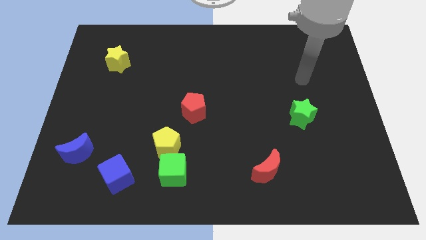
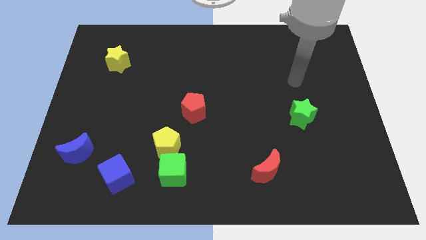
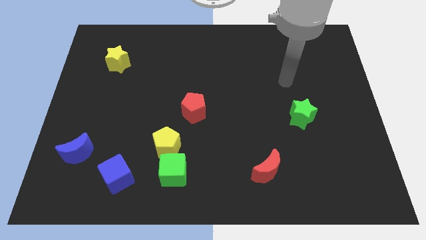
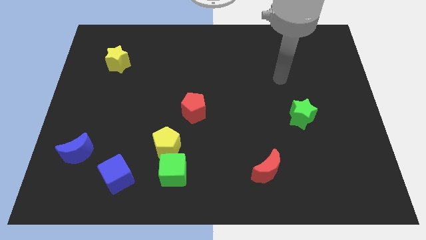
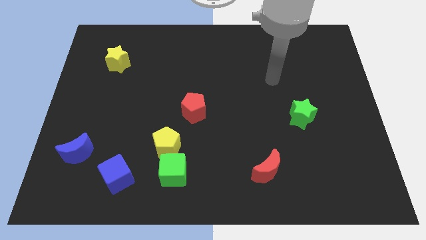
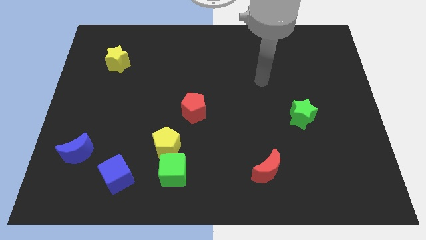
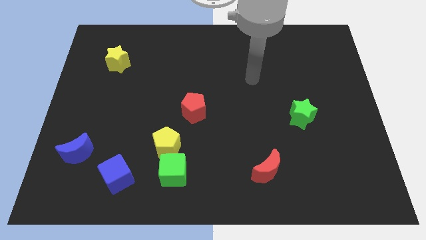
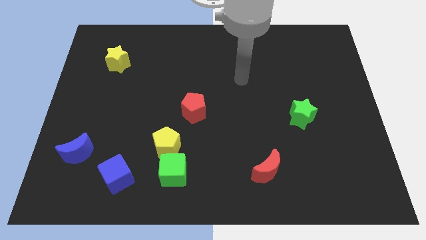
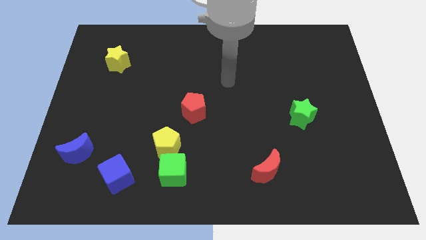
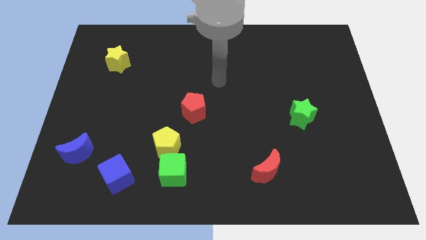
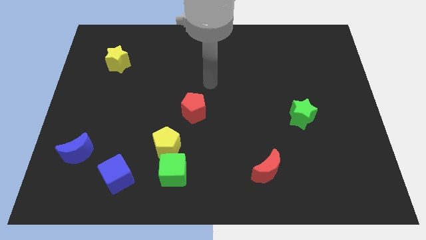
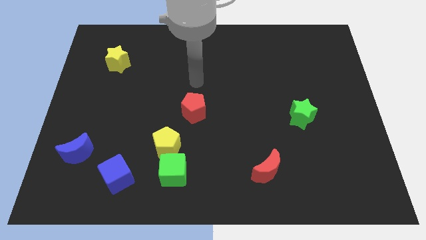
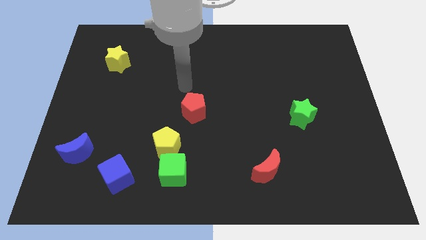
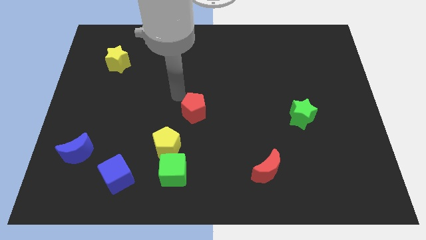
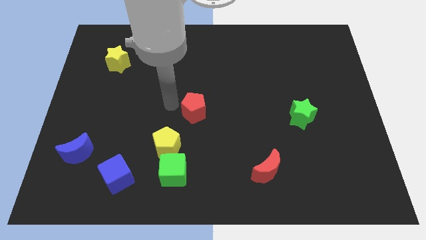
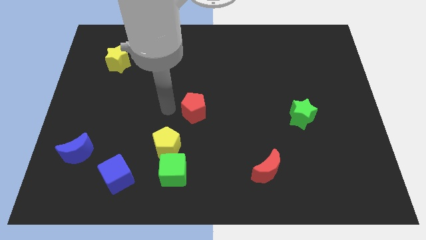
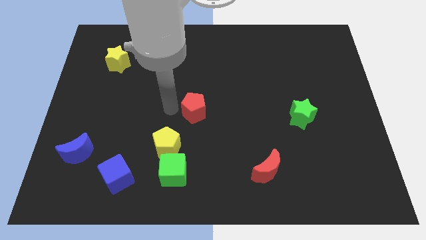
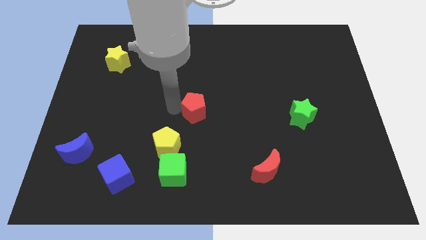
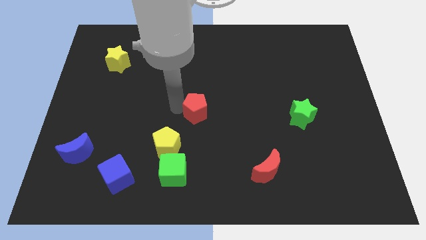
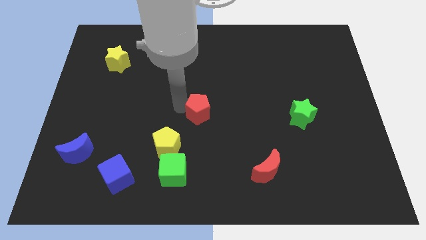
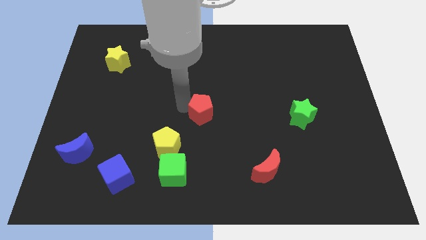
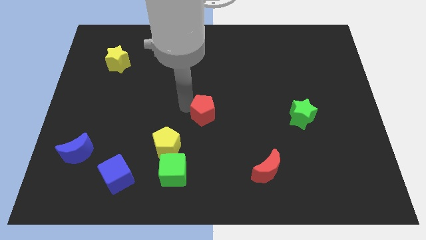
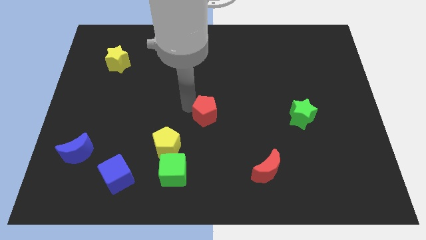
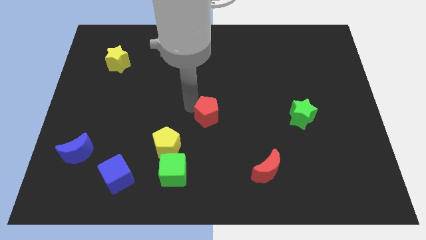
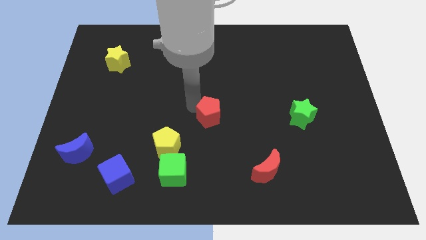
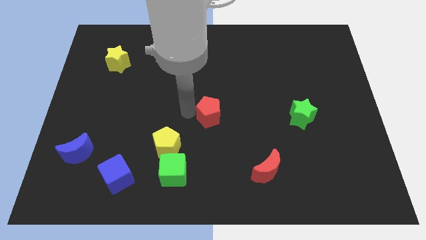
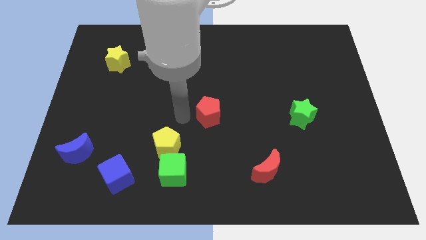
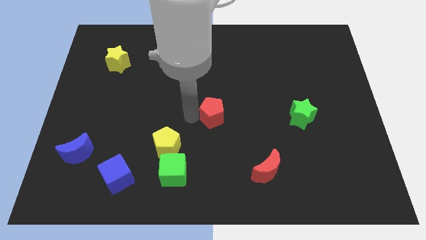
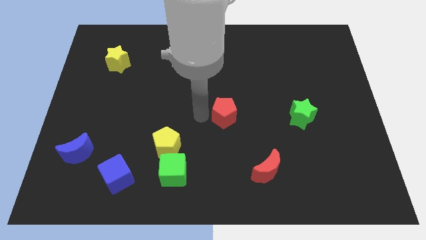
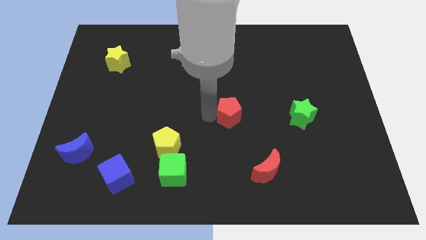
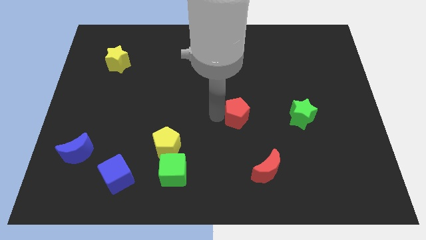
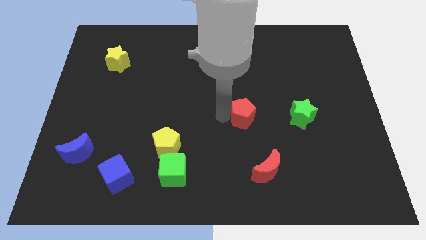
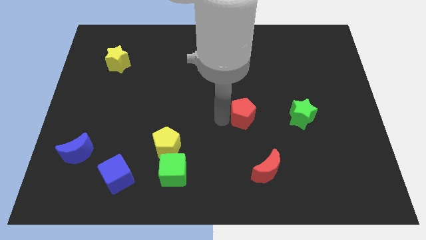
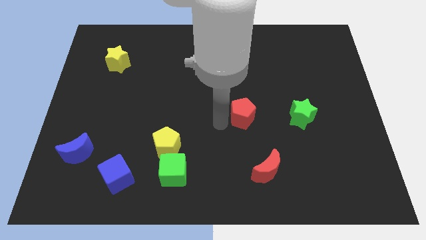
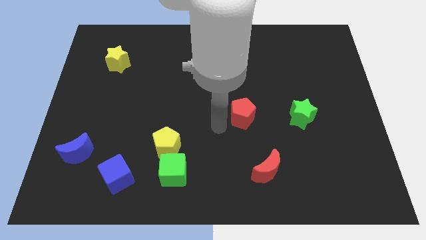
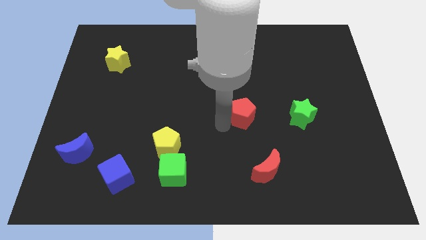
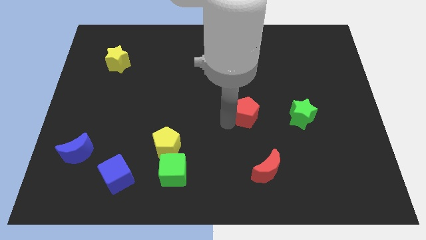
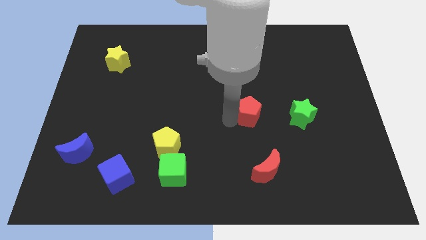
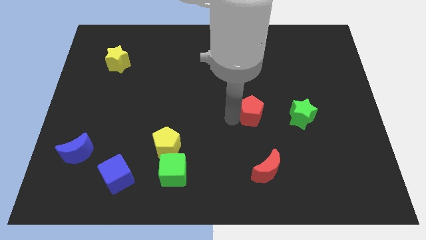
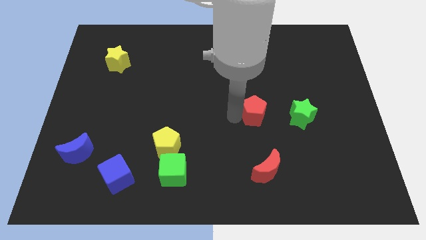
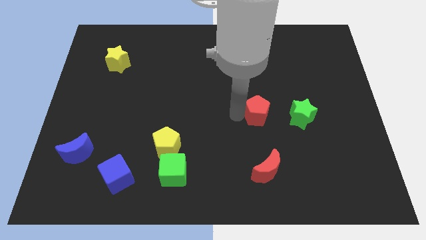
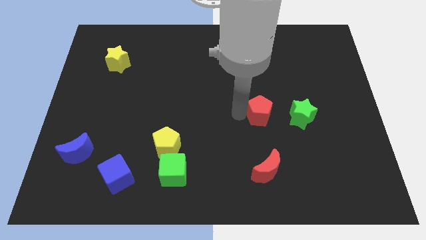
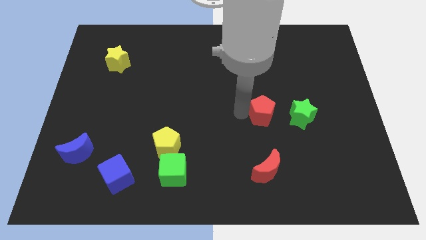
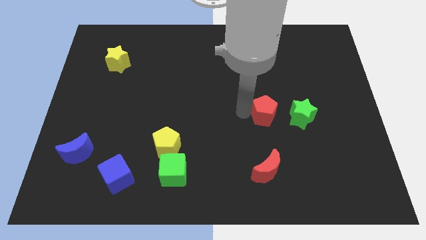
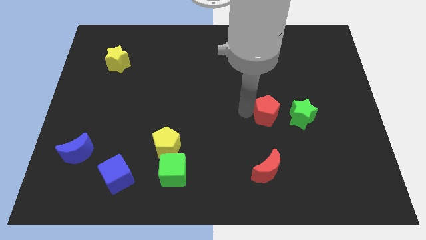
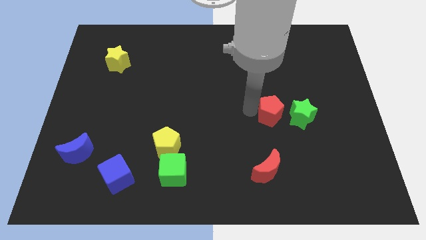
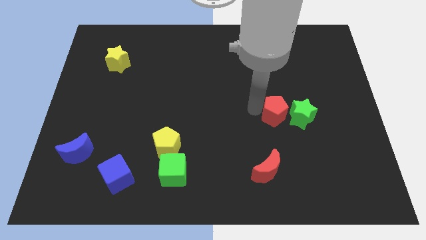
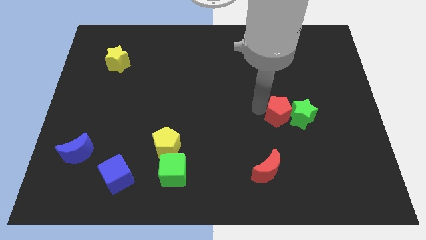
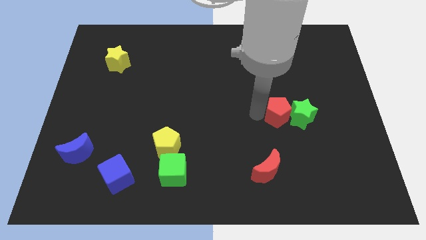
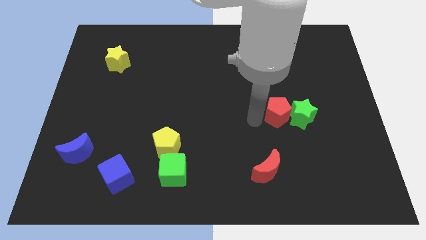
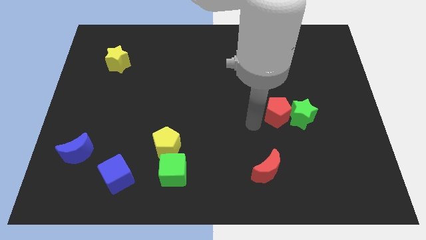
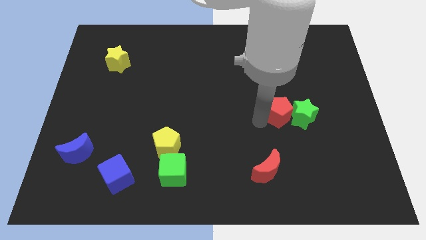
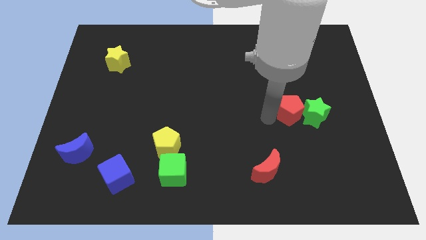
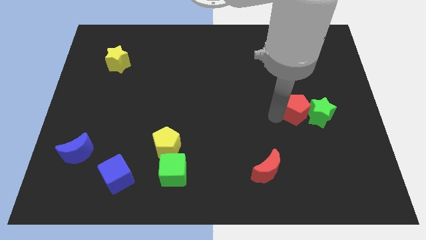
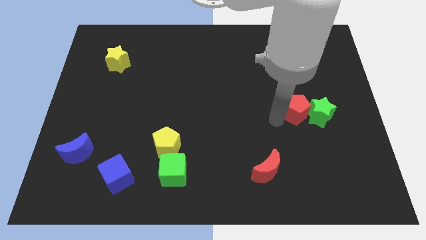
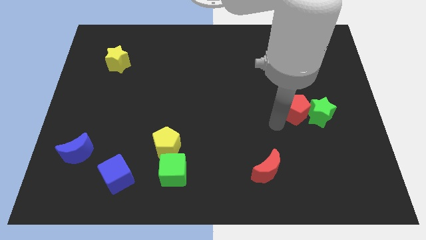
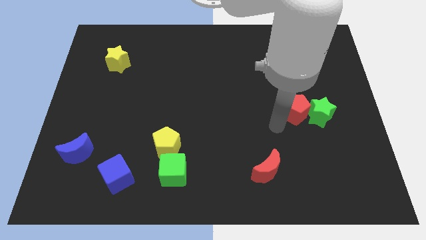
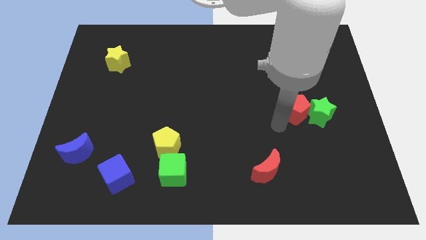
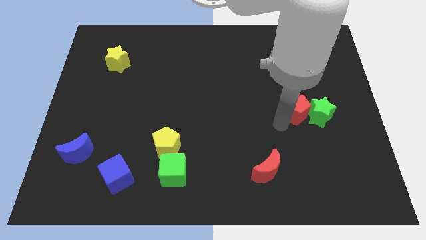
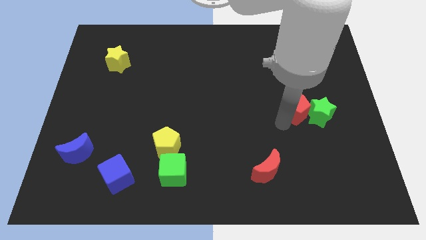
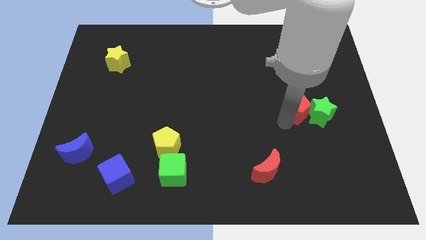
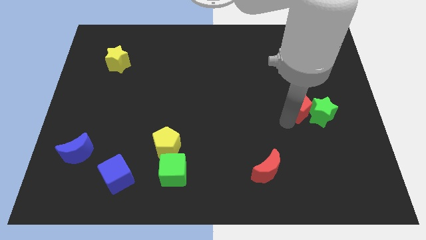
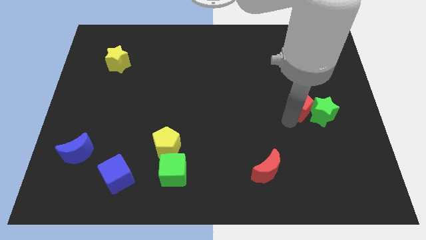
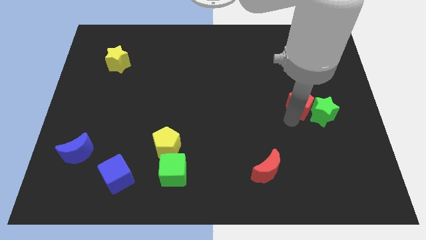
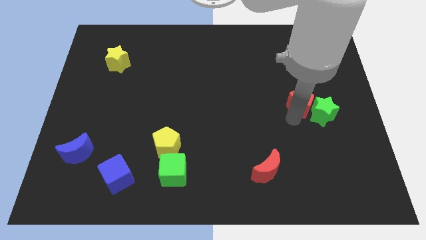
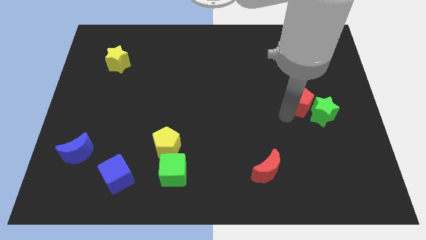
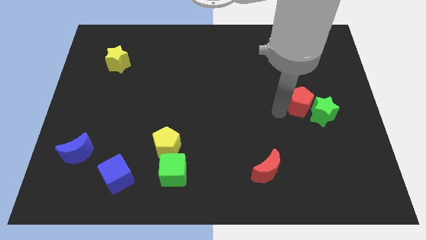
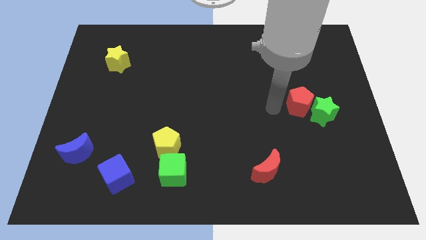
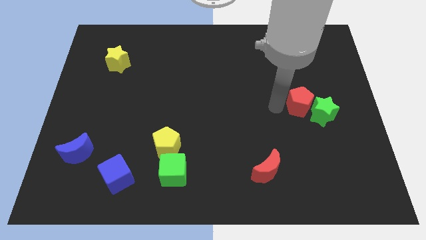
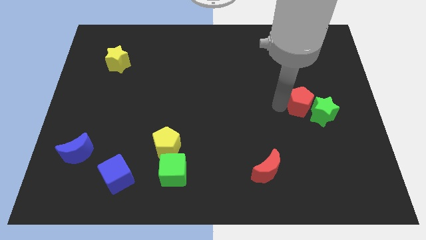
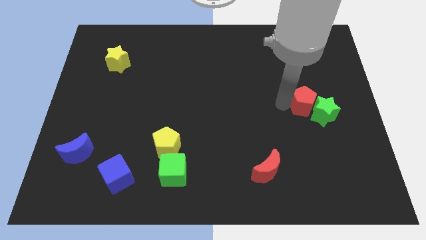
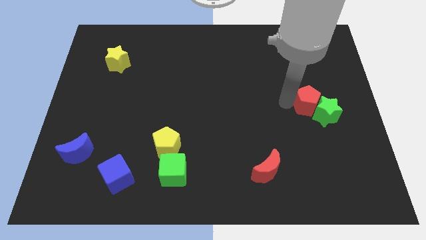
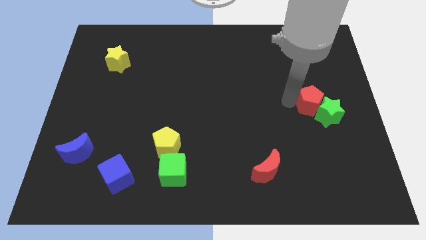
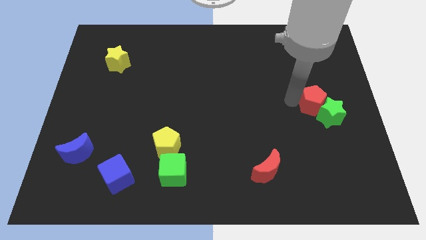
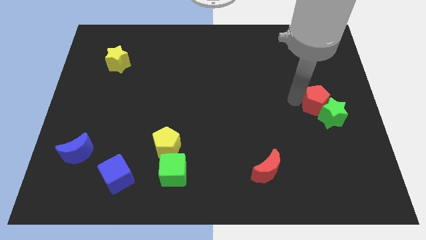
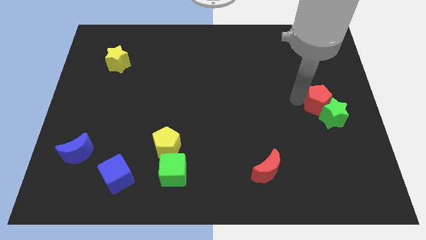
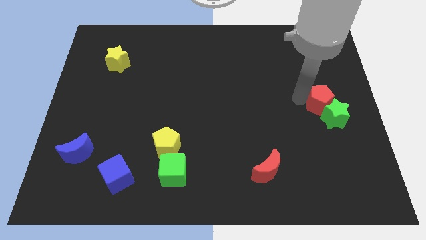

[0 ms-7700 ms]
push the red pentagon to the right side
